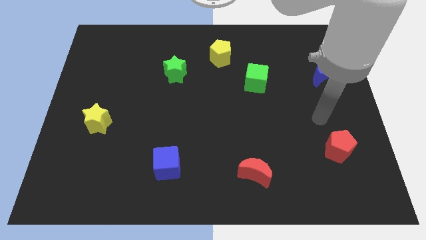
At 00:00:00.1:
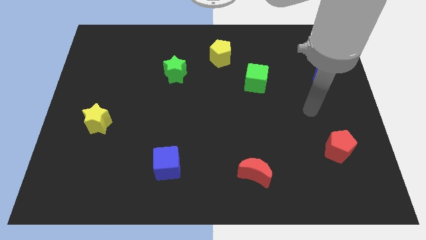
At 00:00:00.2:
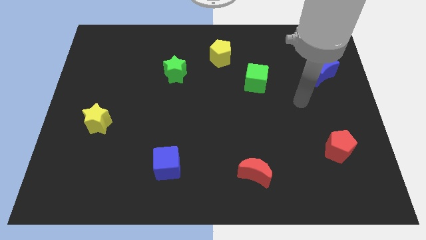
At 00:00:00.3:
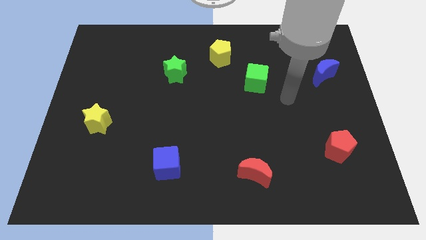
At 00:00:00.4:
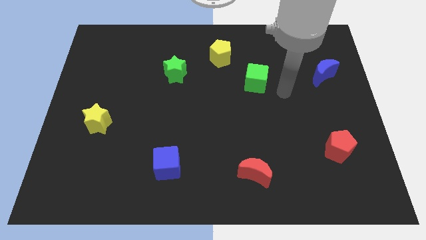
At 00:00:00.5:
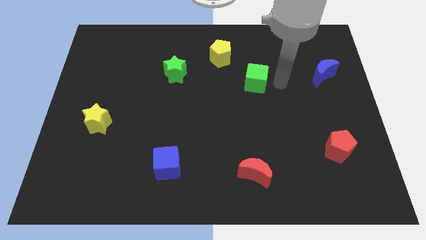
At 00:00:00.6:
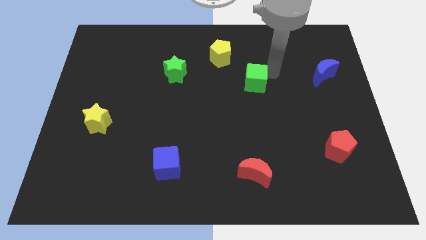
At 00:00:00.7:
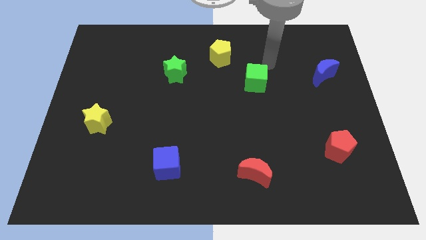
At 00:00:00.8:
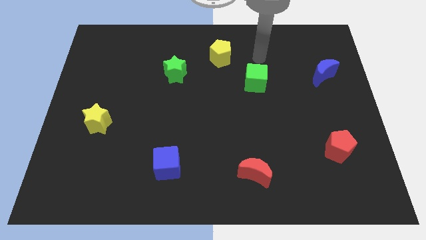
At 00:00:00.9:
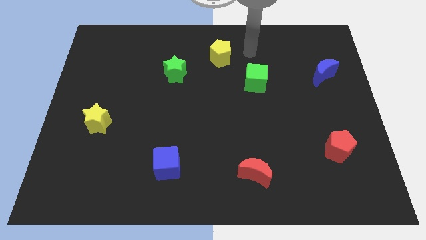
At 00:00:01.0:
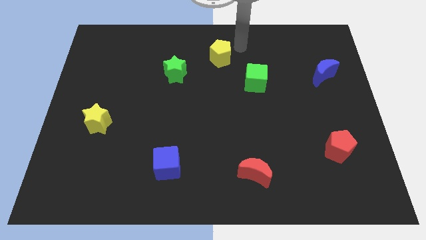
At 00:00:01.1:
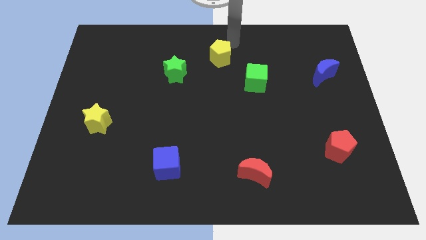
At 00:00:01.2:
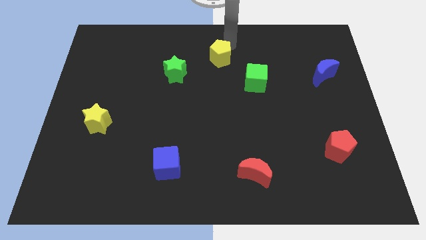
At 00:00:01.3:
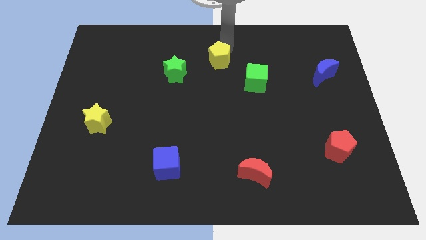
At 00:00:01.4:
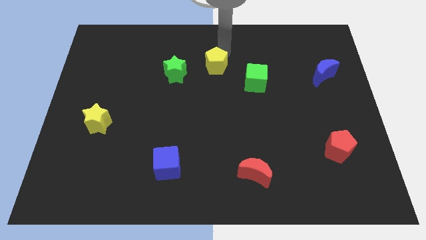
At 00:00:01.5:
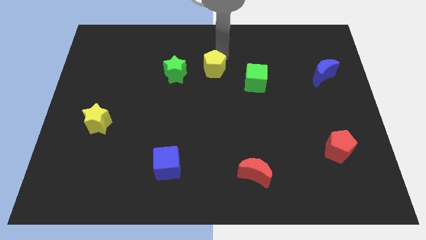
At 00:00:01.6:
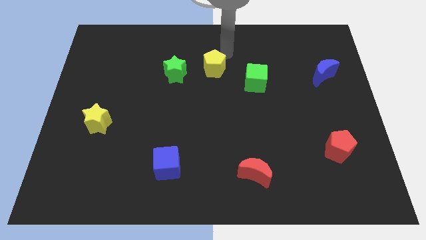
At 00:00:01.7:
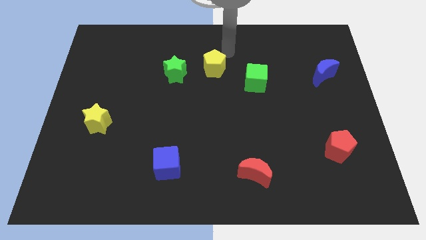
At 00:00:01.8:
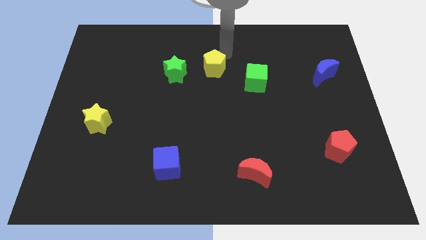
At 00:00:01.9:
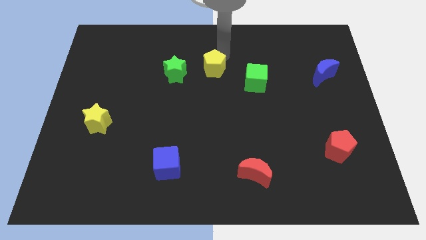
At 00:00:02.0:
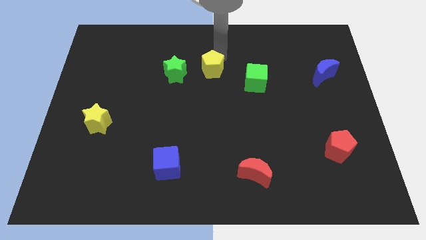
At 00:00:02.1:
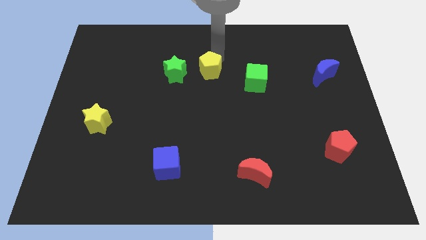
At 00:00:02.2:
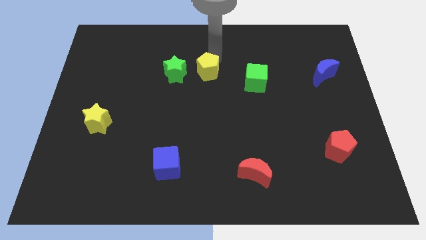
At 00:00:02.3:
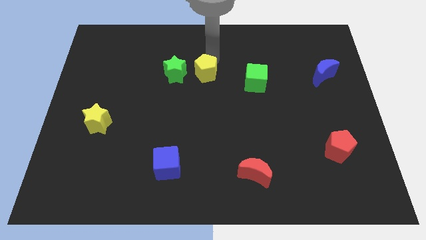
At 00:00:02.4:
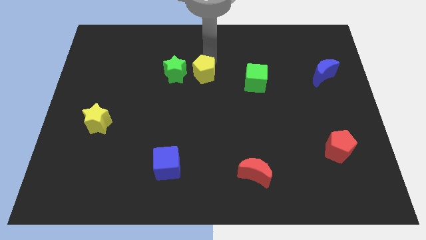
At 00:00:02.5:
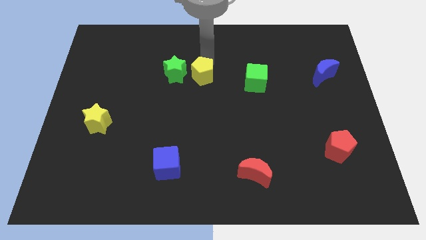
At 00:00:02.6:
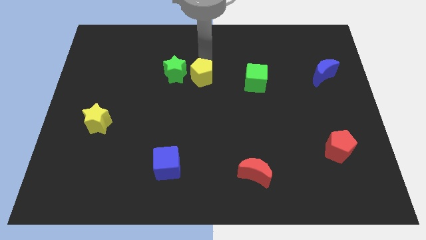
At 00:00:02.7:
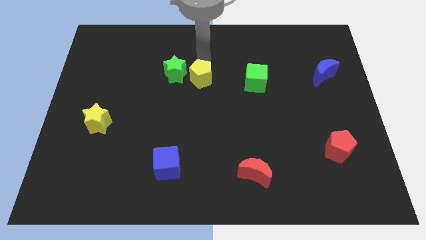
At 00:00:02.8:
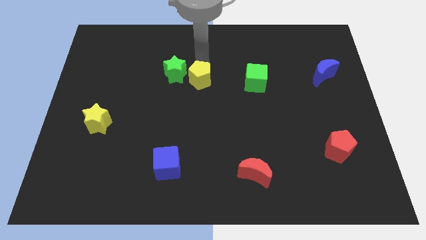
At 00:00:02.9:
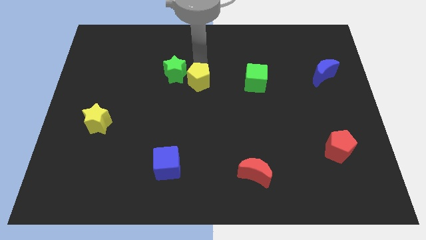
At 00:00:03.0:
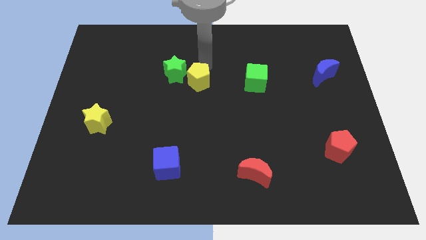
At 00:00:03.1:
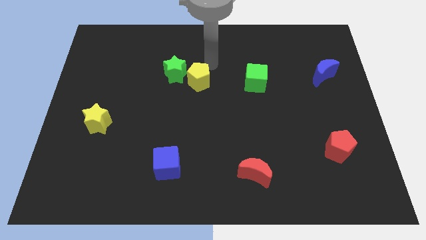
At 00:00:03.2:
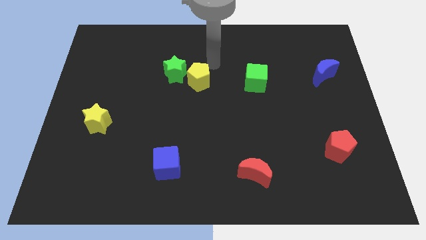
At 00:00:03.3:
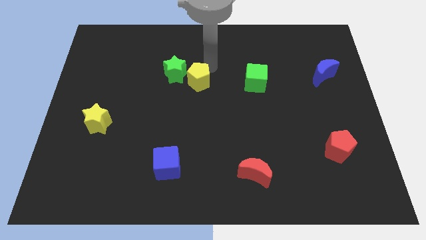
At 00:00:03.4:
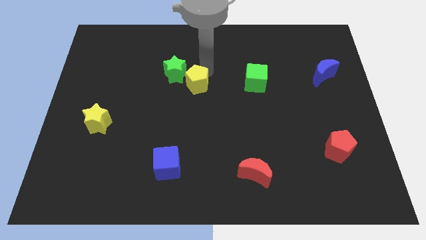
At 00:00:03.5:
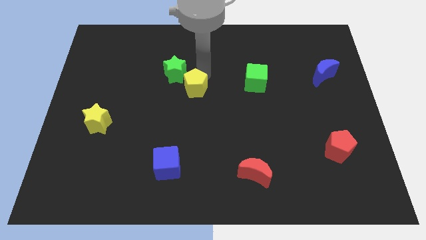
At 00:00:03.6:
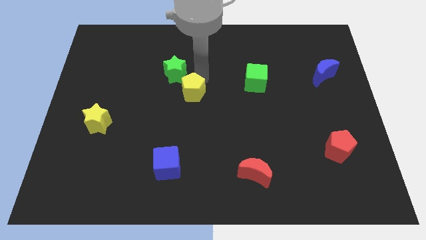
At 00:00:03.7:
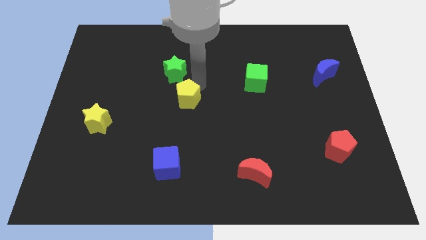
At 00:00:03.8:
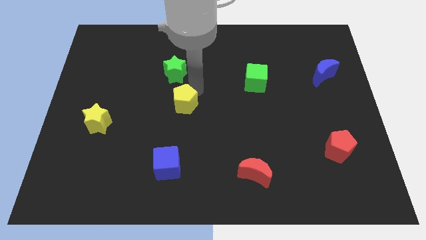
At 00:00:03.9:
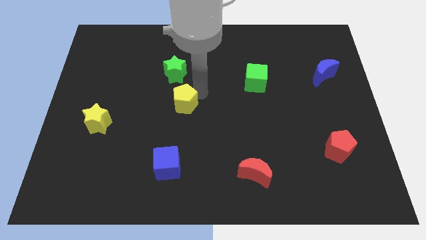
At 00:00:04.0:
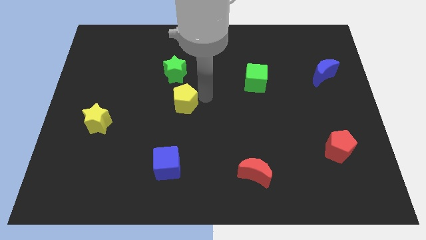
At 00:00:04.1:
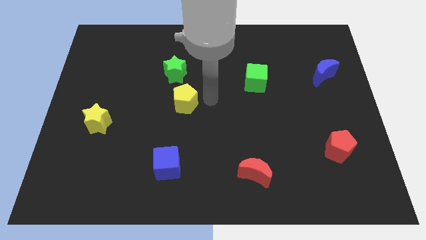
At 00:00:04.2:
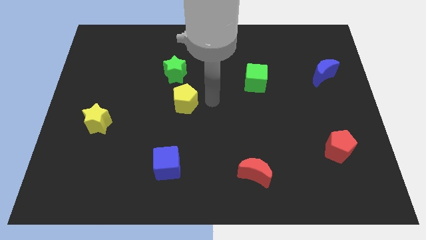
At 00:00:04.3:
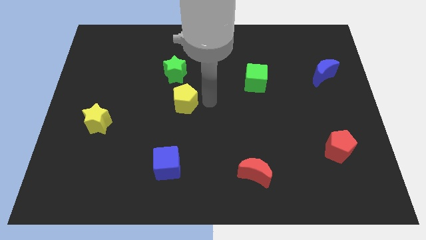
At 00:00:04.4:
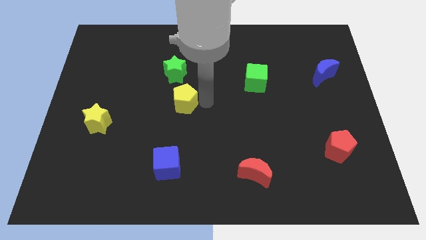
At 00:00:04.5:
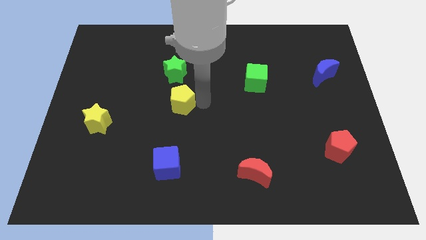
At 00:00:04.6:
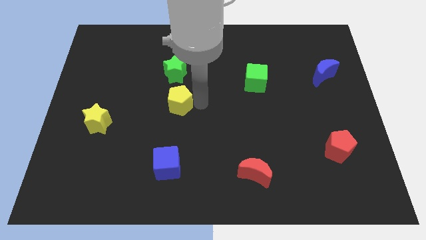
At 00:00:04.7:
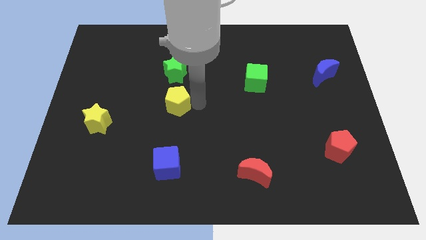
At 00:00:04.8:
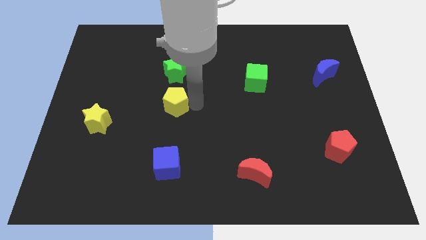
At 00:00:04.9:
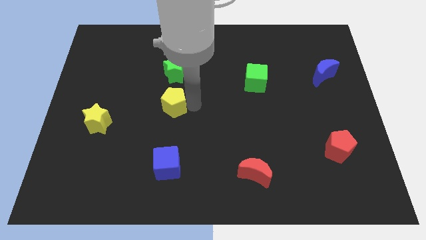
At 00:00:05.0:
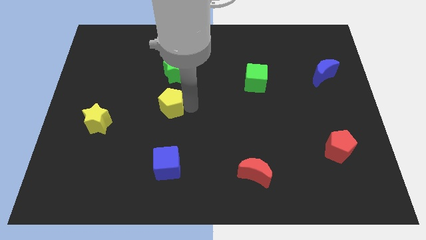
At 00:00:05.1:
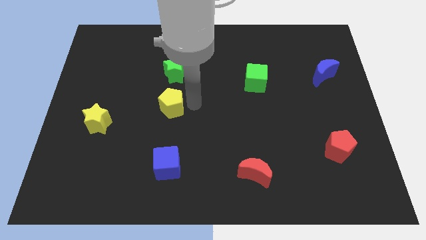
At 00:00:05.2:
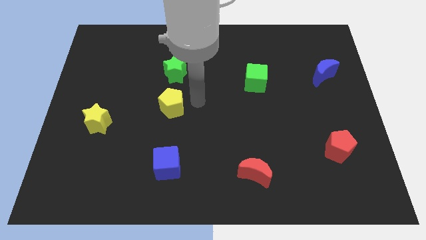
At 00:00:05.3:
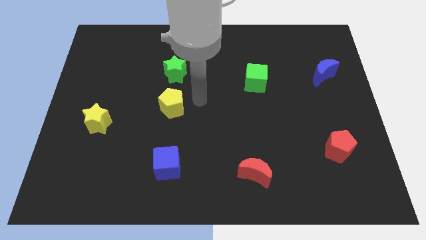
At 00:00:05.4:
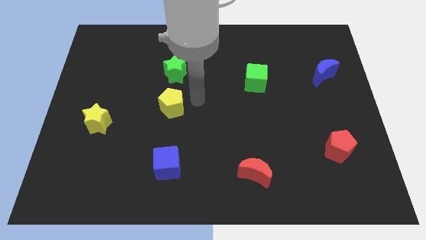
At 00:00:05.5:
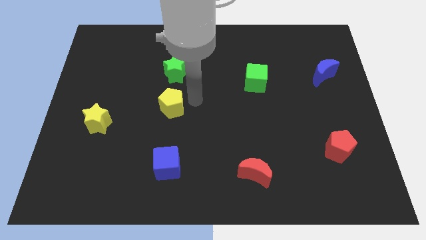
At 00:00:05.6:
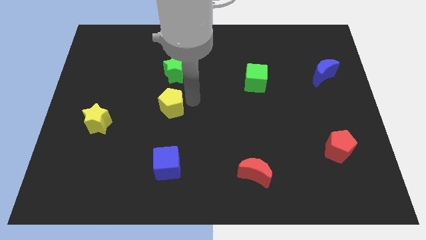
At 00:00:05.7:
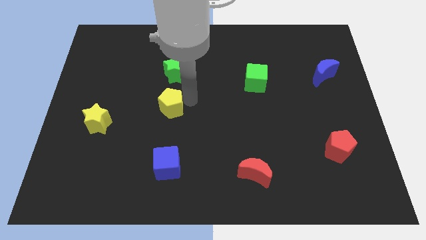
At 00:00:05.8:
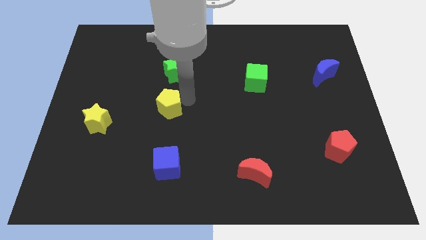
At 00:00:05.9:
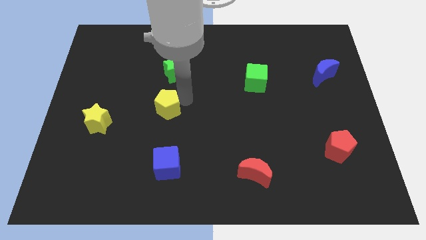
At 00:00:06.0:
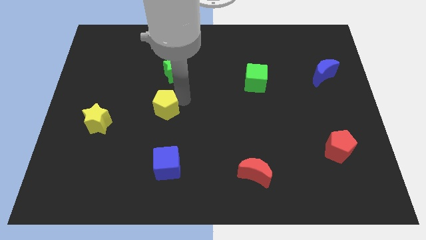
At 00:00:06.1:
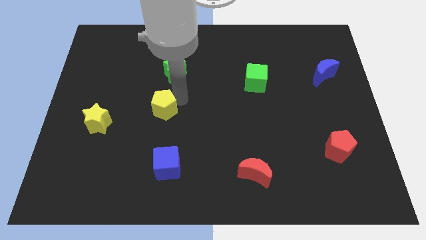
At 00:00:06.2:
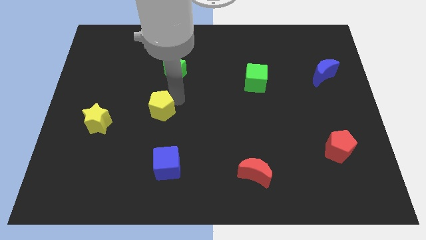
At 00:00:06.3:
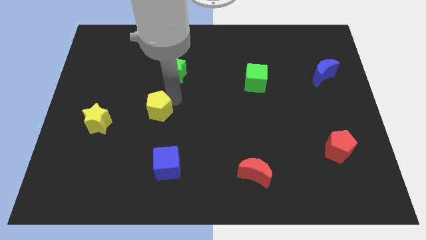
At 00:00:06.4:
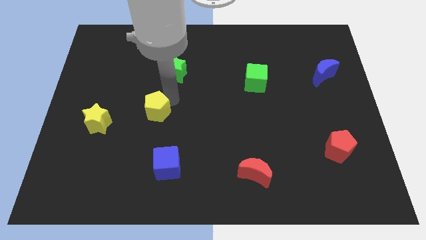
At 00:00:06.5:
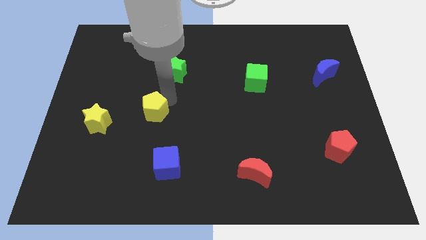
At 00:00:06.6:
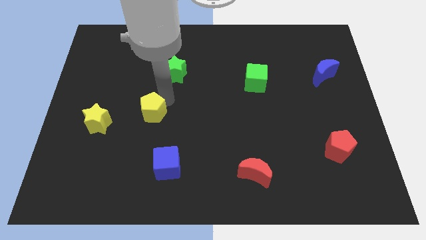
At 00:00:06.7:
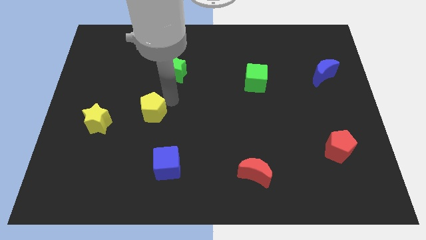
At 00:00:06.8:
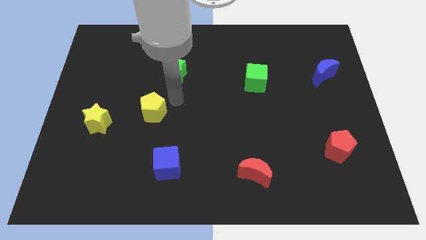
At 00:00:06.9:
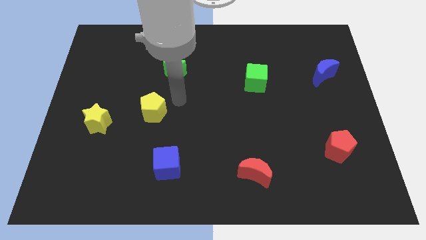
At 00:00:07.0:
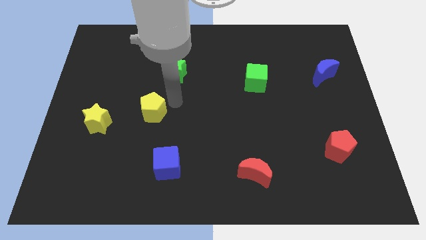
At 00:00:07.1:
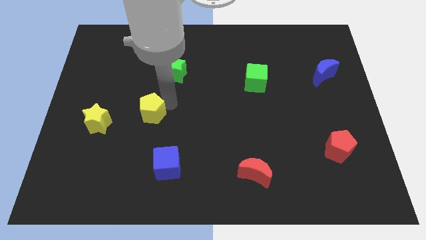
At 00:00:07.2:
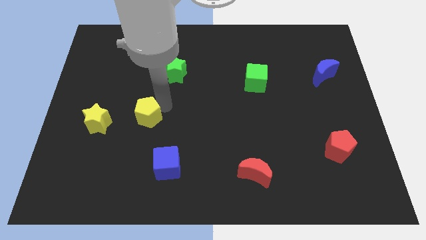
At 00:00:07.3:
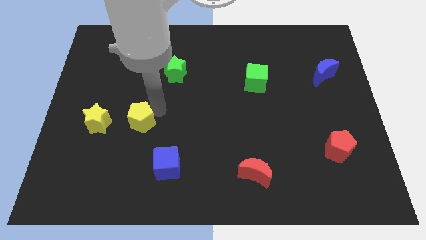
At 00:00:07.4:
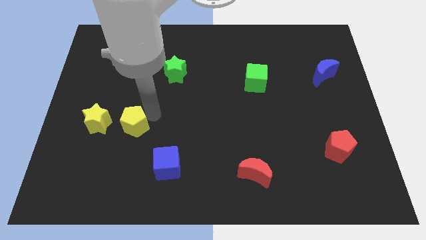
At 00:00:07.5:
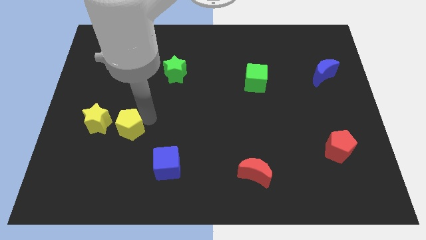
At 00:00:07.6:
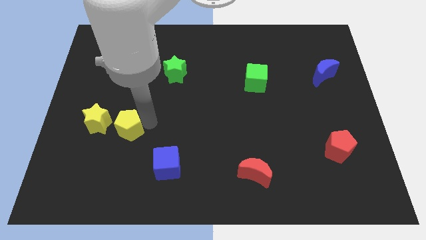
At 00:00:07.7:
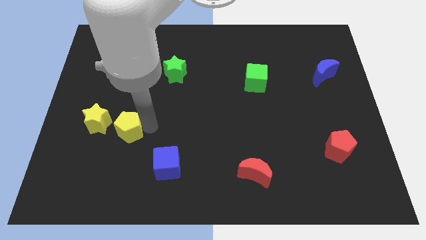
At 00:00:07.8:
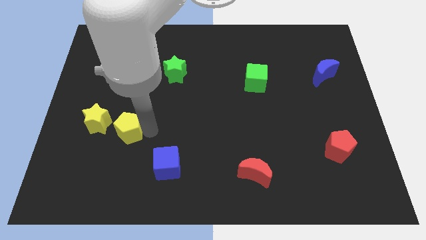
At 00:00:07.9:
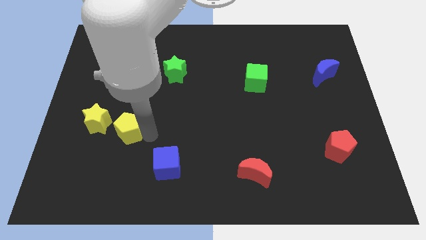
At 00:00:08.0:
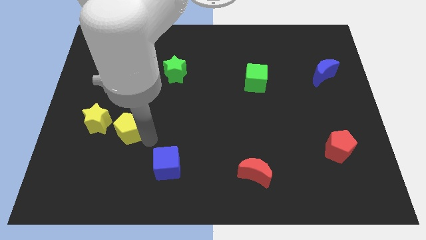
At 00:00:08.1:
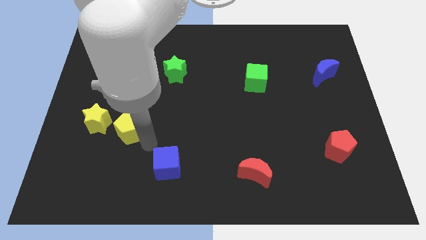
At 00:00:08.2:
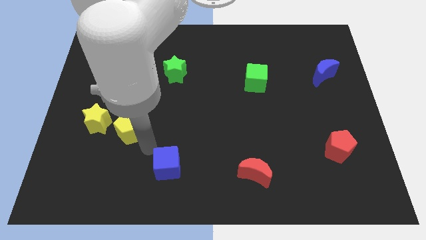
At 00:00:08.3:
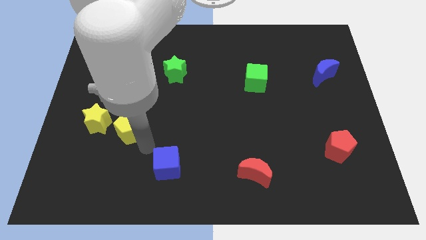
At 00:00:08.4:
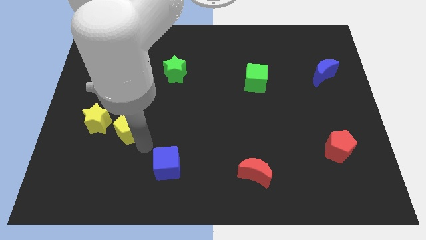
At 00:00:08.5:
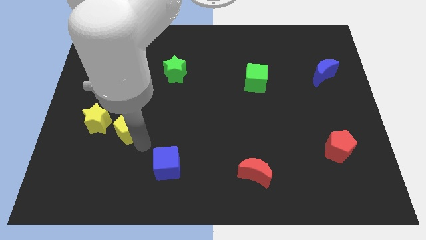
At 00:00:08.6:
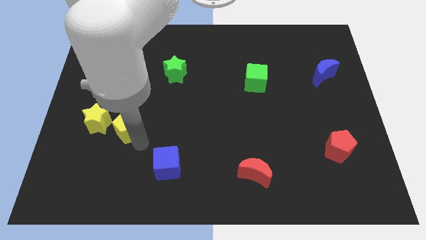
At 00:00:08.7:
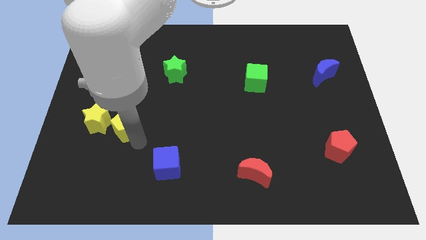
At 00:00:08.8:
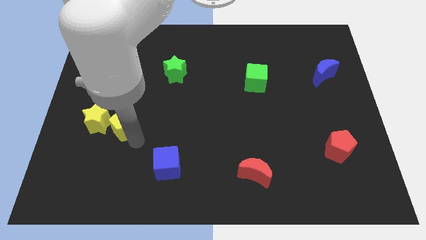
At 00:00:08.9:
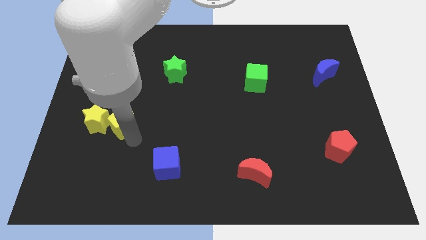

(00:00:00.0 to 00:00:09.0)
put the yellow pentagon close to the yellow star
